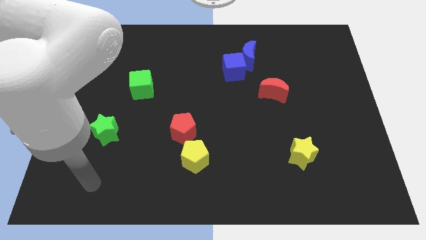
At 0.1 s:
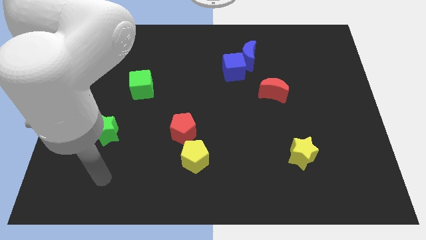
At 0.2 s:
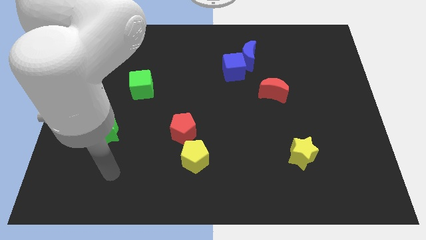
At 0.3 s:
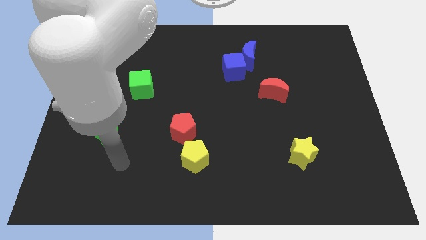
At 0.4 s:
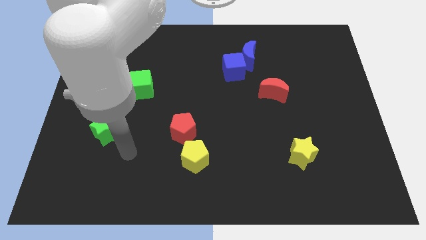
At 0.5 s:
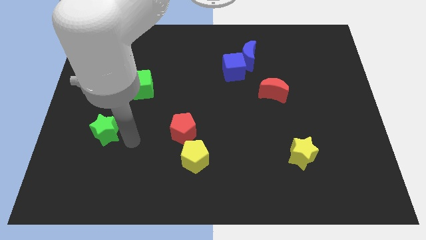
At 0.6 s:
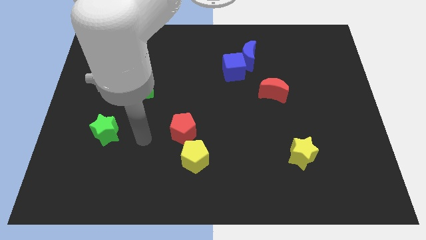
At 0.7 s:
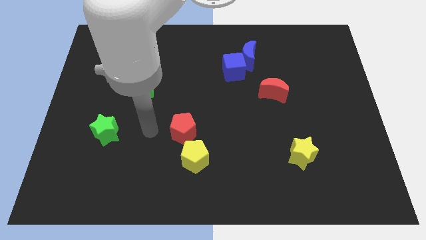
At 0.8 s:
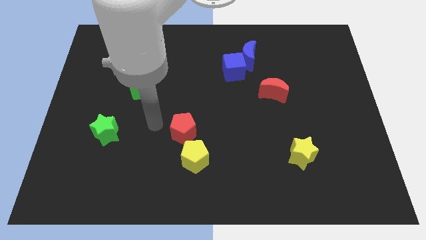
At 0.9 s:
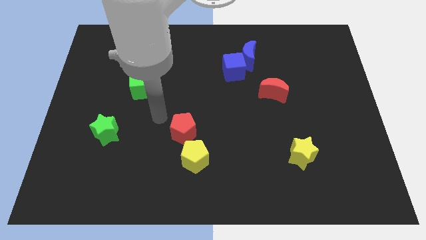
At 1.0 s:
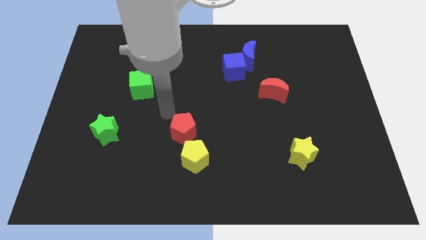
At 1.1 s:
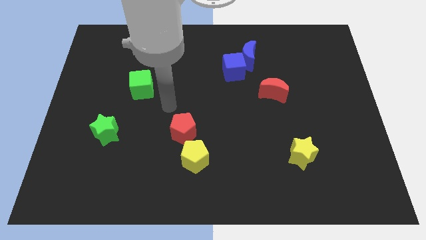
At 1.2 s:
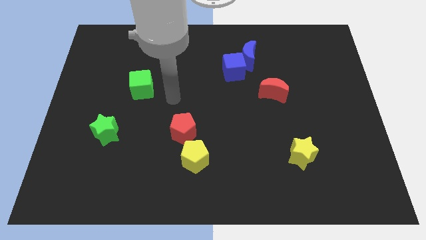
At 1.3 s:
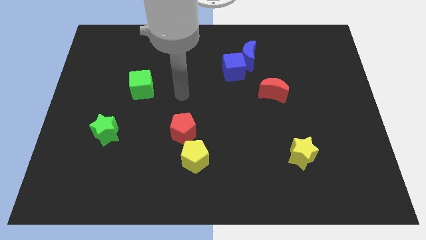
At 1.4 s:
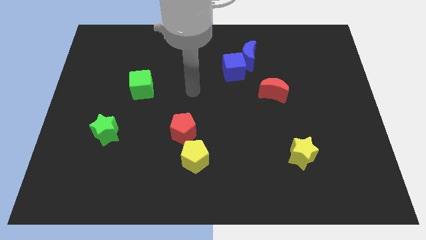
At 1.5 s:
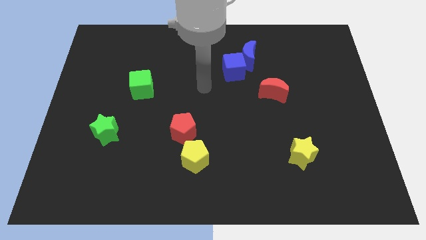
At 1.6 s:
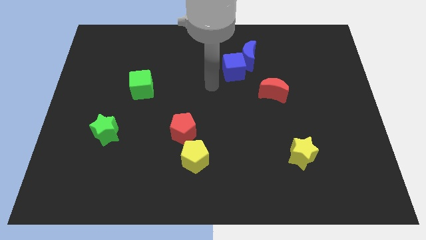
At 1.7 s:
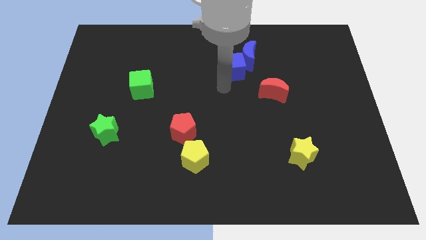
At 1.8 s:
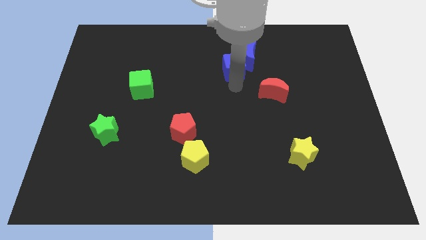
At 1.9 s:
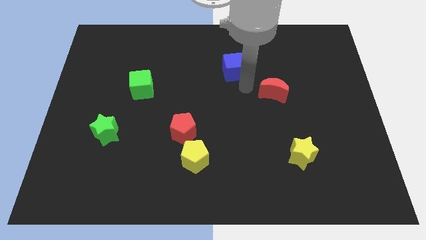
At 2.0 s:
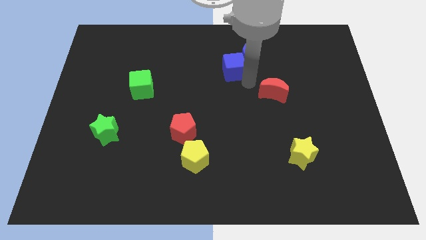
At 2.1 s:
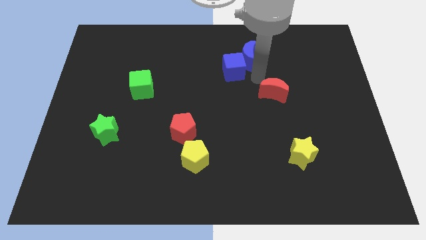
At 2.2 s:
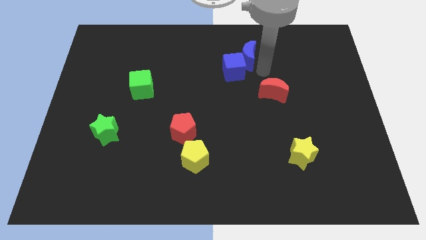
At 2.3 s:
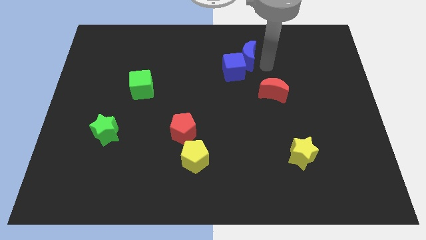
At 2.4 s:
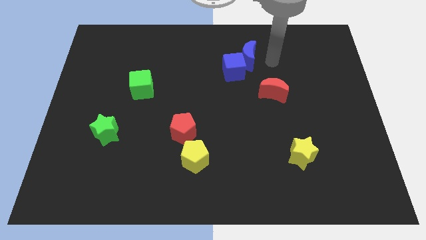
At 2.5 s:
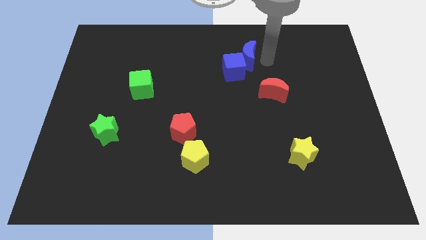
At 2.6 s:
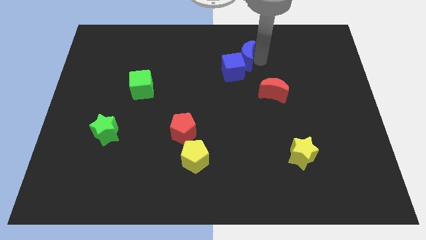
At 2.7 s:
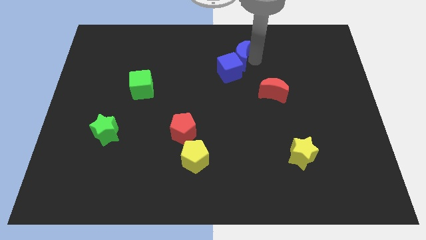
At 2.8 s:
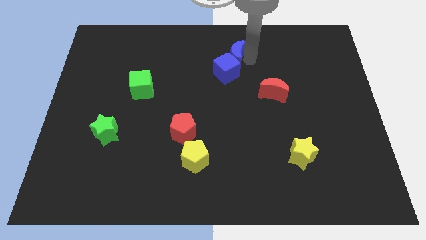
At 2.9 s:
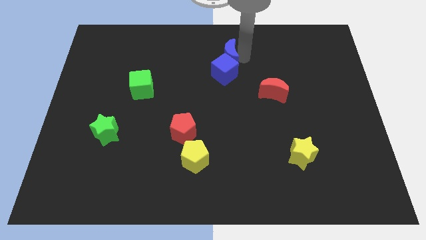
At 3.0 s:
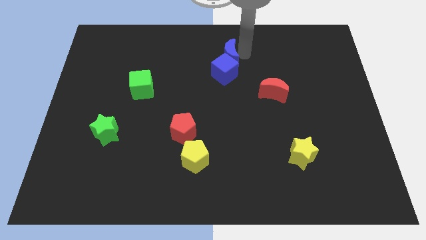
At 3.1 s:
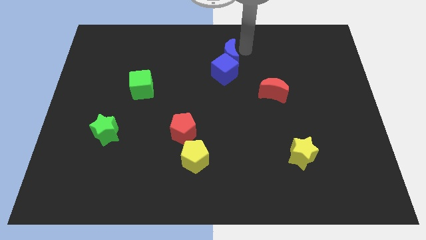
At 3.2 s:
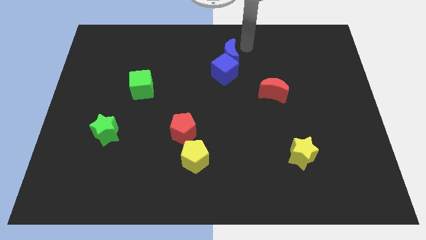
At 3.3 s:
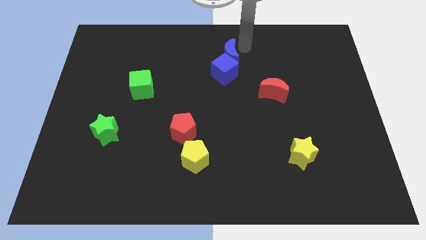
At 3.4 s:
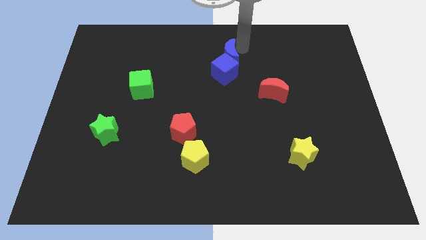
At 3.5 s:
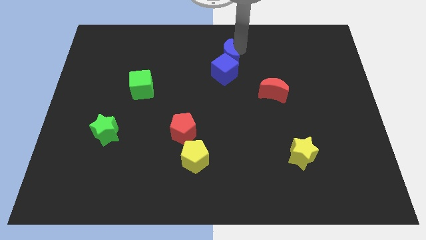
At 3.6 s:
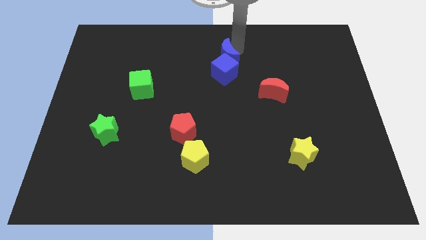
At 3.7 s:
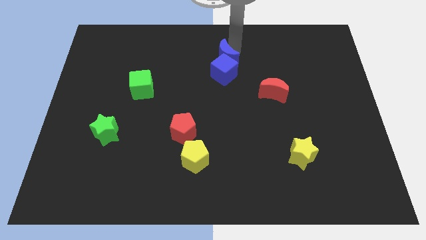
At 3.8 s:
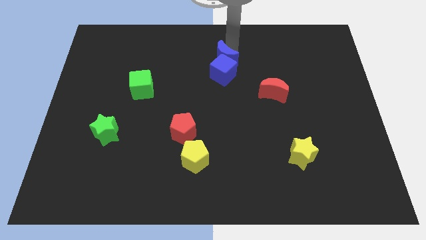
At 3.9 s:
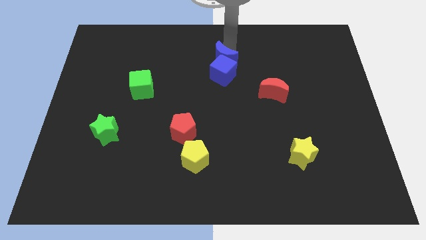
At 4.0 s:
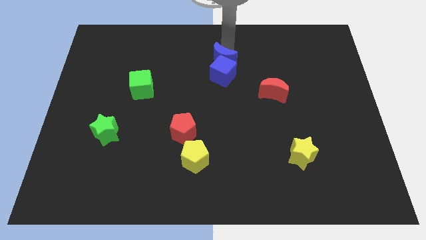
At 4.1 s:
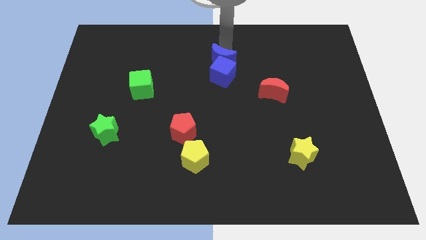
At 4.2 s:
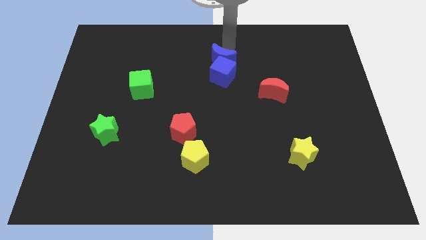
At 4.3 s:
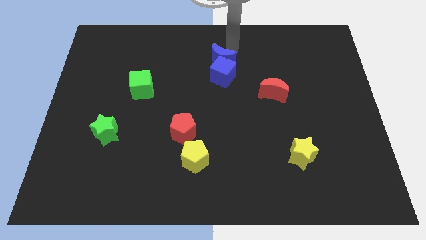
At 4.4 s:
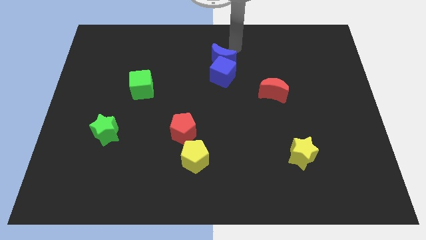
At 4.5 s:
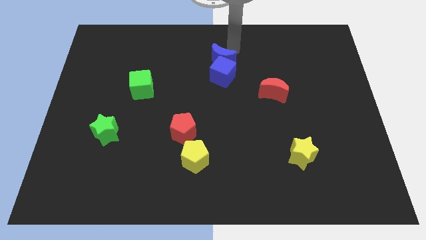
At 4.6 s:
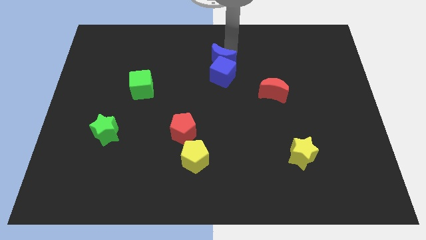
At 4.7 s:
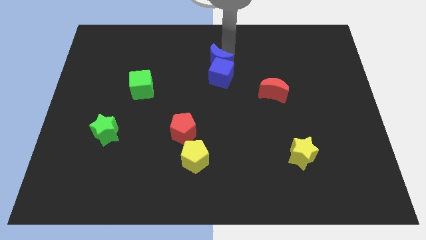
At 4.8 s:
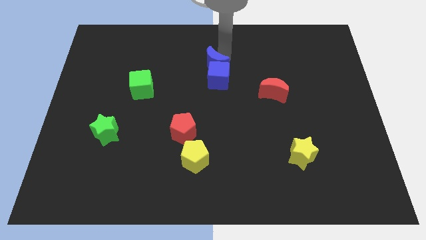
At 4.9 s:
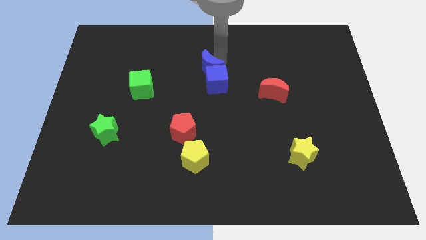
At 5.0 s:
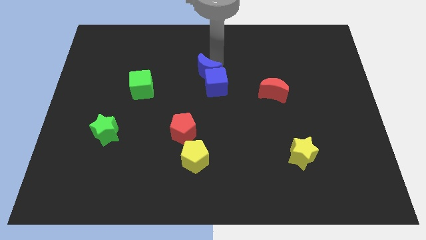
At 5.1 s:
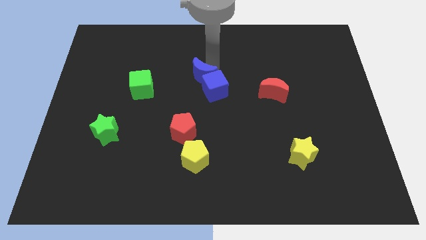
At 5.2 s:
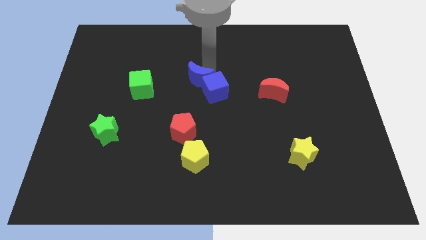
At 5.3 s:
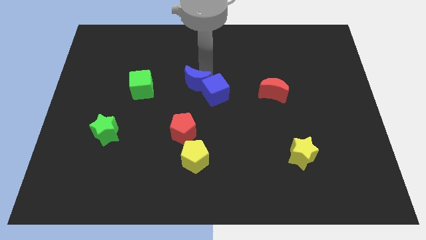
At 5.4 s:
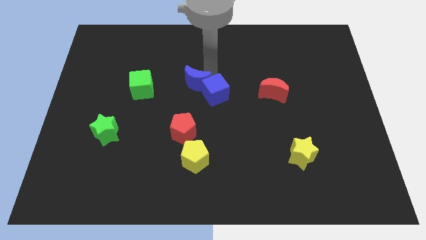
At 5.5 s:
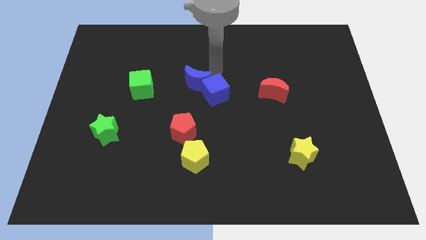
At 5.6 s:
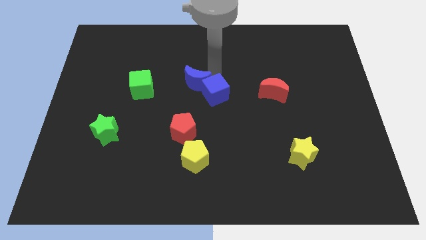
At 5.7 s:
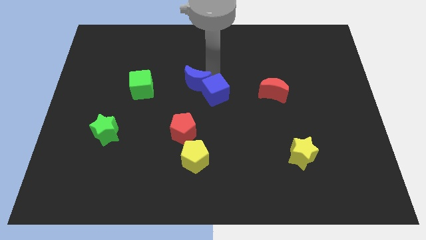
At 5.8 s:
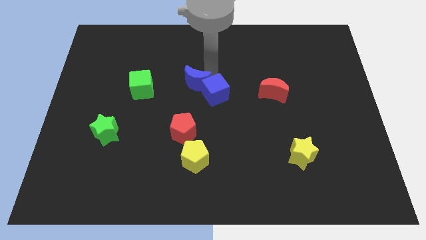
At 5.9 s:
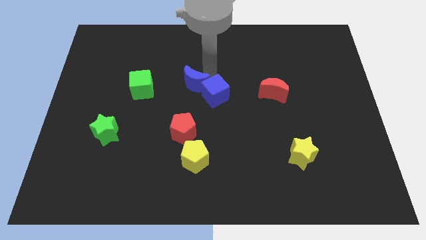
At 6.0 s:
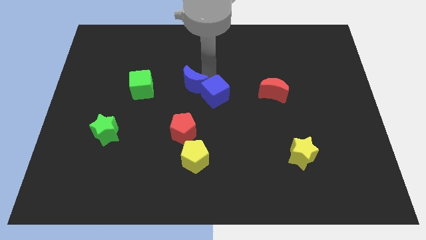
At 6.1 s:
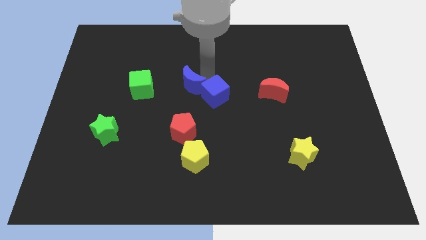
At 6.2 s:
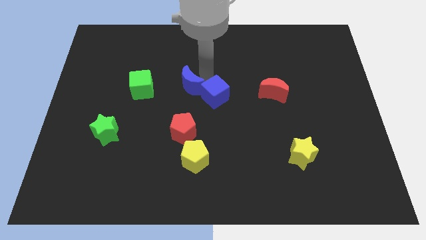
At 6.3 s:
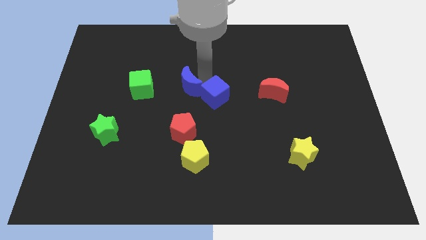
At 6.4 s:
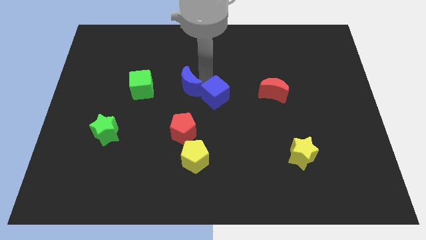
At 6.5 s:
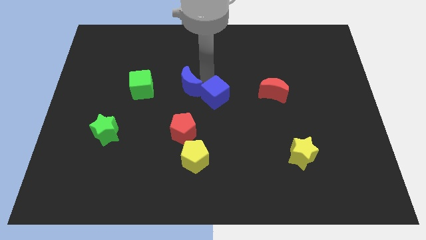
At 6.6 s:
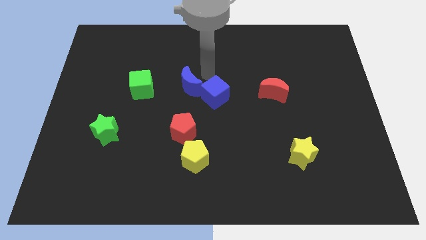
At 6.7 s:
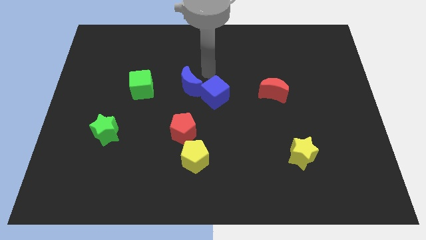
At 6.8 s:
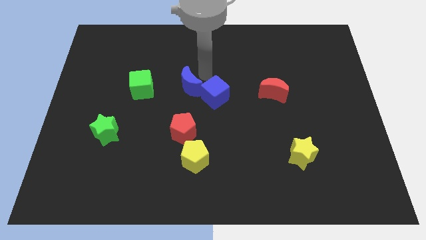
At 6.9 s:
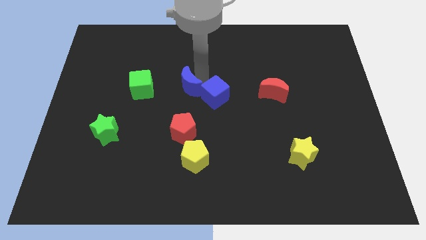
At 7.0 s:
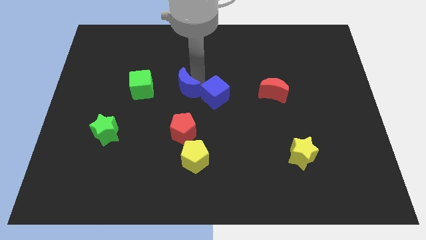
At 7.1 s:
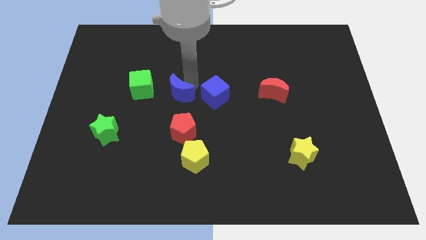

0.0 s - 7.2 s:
slide the blue moon down and left diagonally

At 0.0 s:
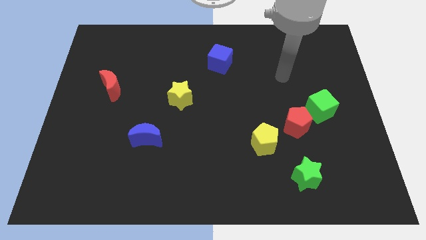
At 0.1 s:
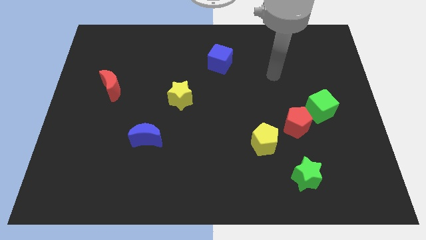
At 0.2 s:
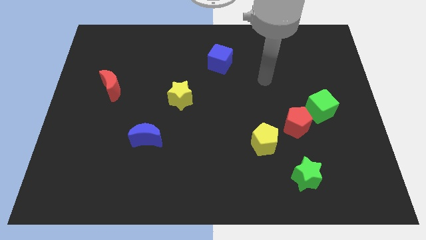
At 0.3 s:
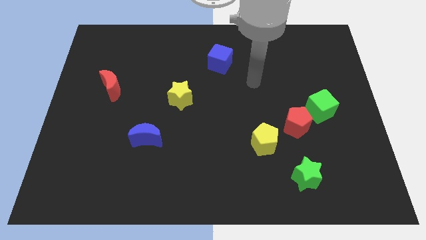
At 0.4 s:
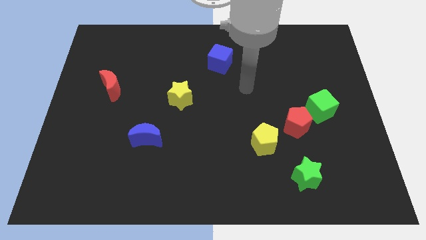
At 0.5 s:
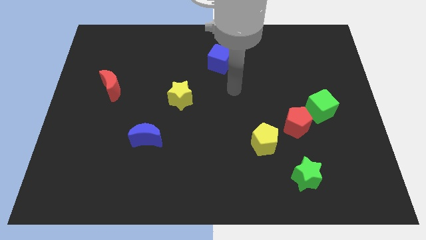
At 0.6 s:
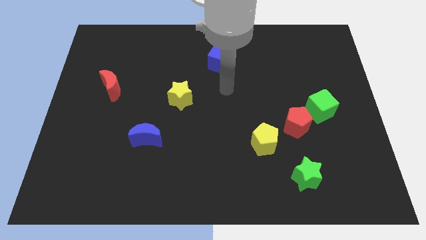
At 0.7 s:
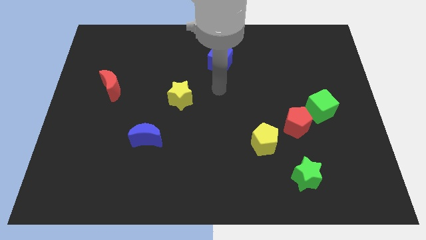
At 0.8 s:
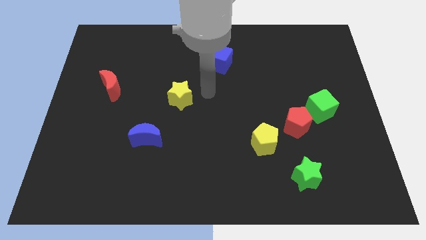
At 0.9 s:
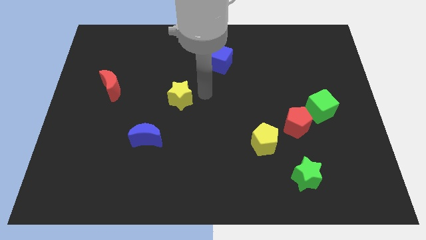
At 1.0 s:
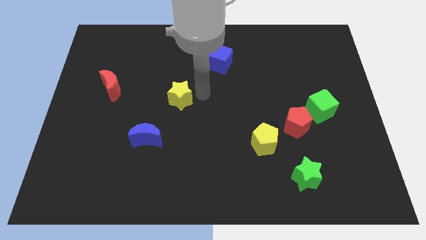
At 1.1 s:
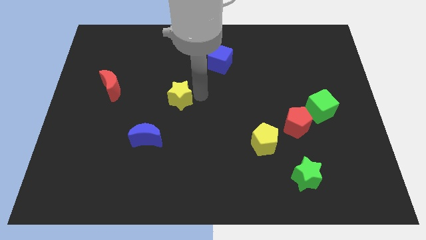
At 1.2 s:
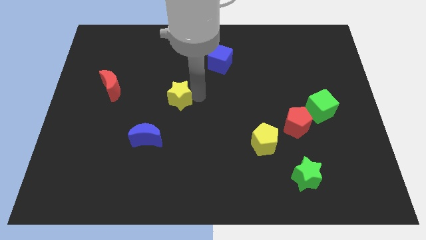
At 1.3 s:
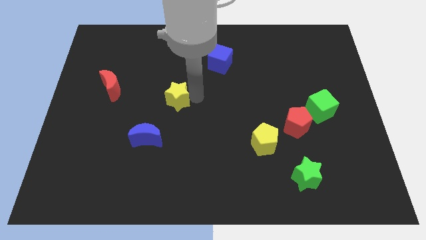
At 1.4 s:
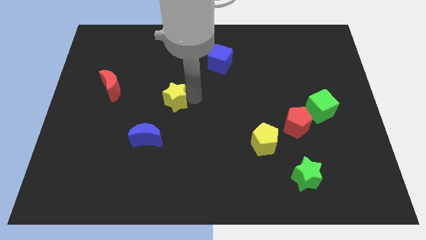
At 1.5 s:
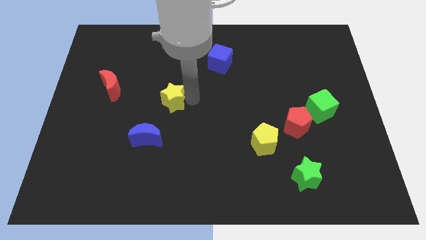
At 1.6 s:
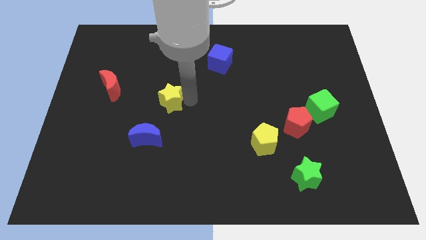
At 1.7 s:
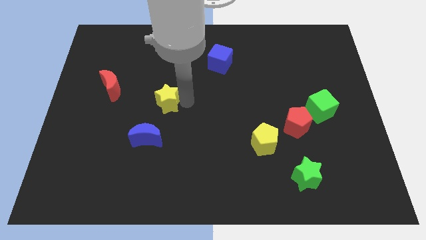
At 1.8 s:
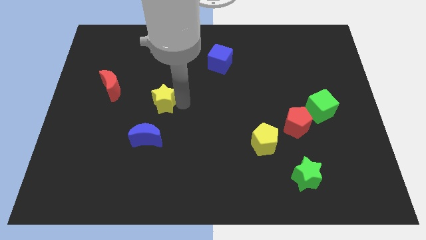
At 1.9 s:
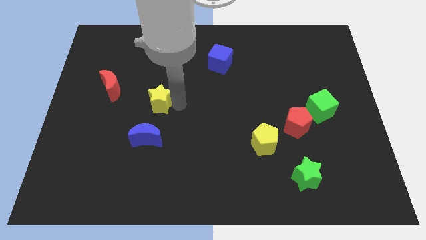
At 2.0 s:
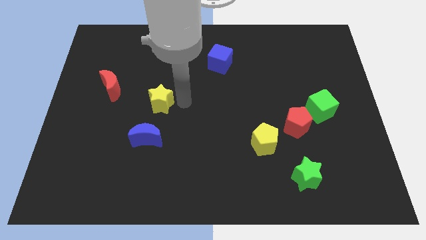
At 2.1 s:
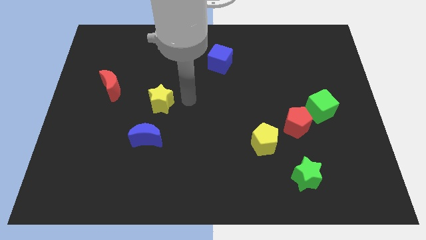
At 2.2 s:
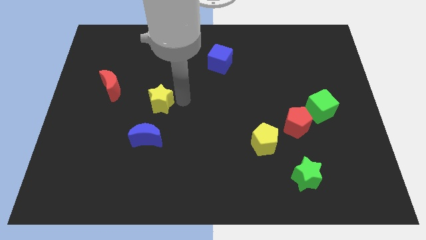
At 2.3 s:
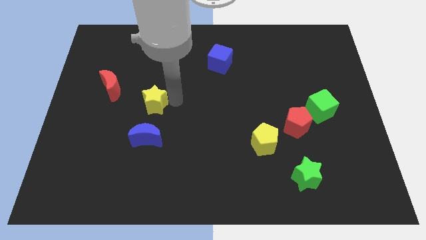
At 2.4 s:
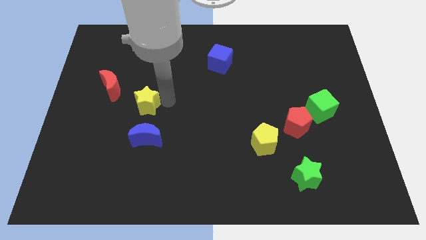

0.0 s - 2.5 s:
move the yellow star to the left a little
